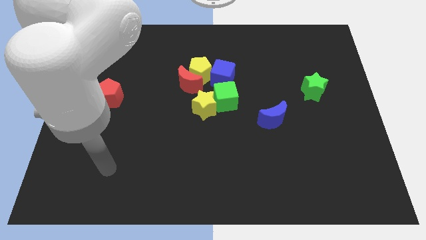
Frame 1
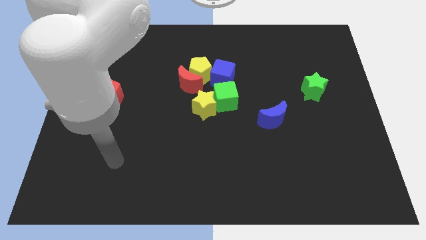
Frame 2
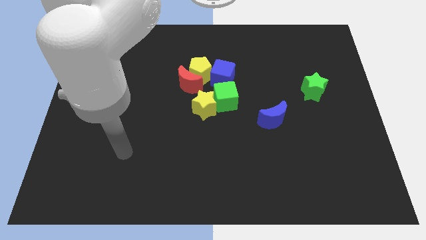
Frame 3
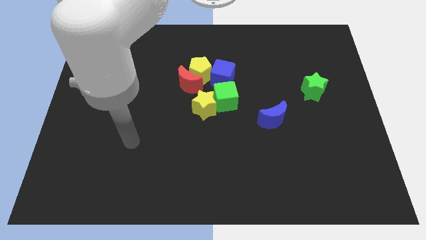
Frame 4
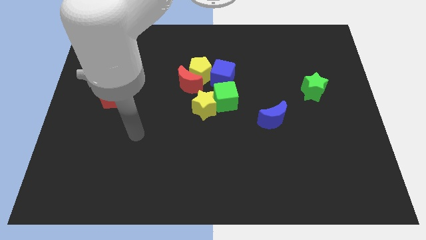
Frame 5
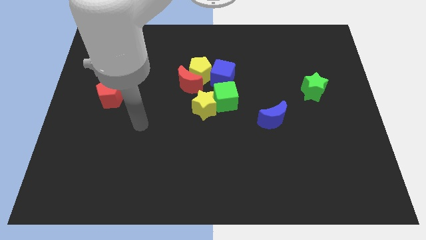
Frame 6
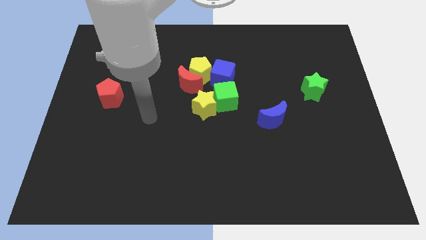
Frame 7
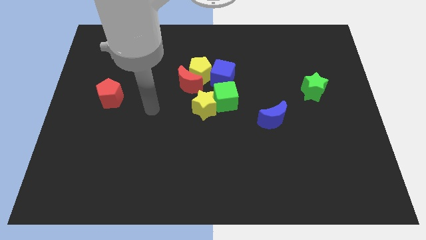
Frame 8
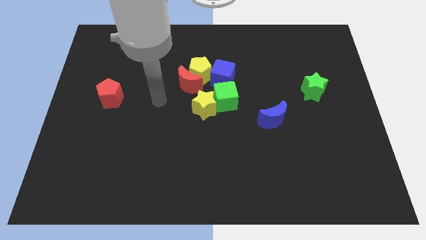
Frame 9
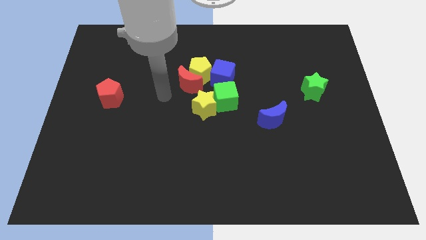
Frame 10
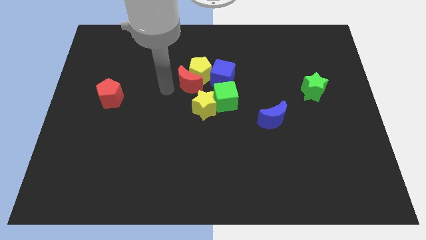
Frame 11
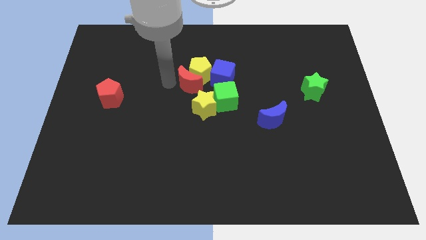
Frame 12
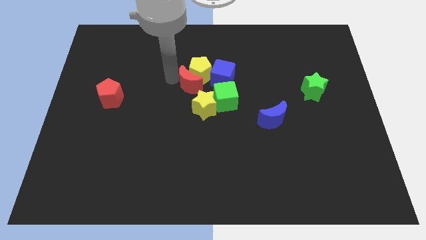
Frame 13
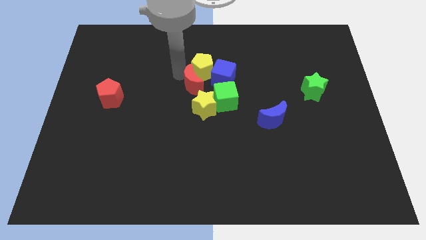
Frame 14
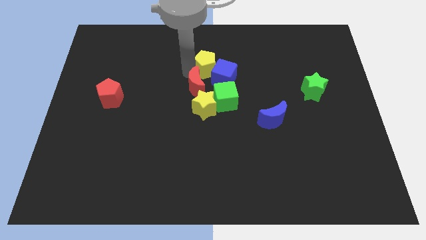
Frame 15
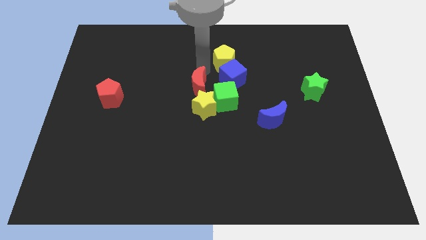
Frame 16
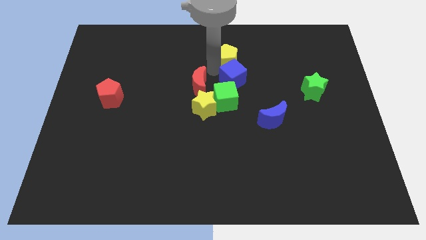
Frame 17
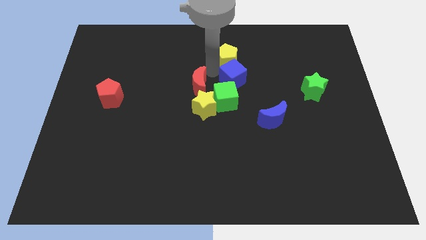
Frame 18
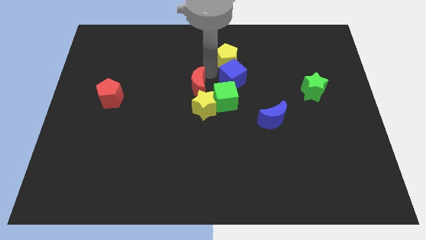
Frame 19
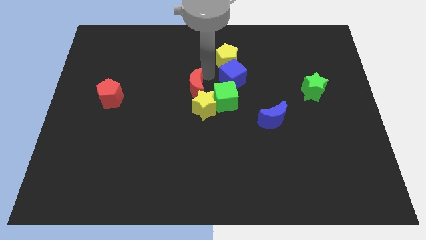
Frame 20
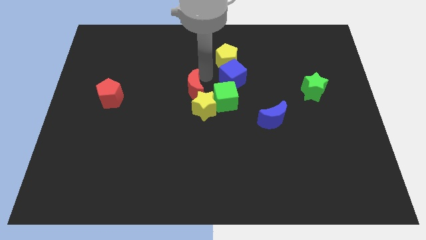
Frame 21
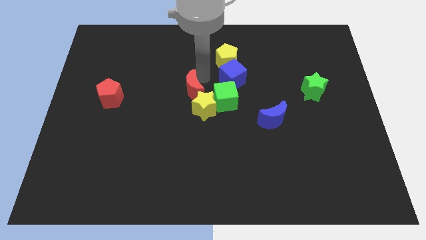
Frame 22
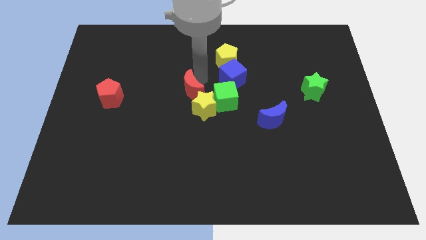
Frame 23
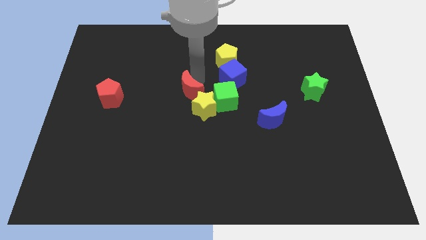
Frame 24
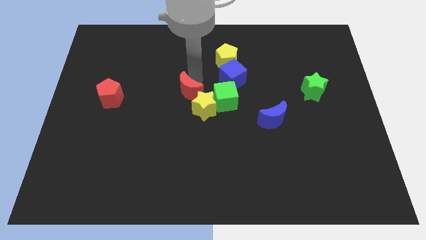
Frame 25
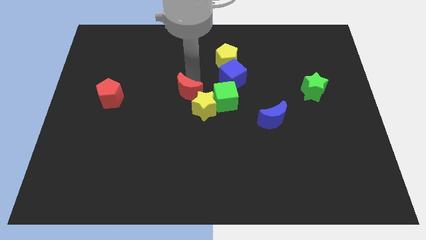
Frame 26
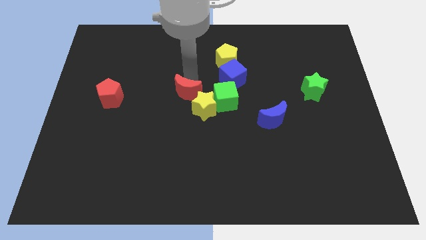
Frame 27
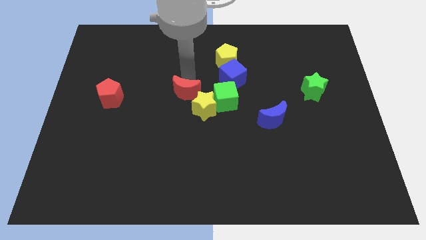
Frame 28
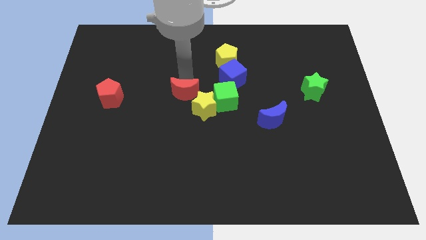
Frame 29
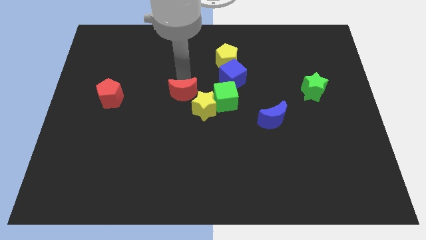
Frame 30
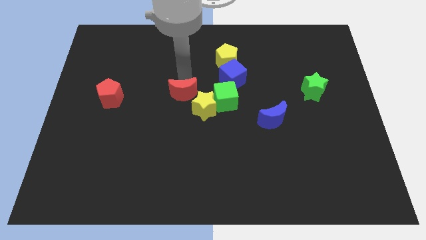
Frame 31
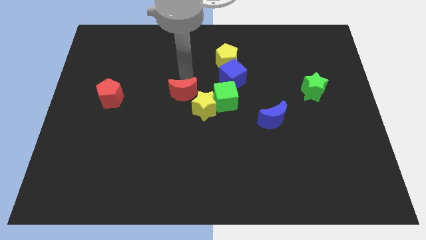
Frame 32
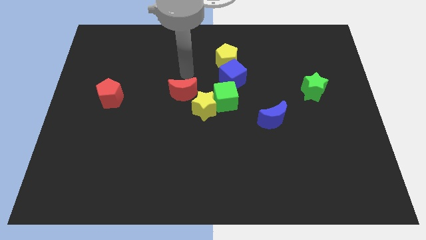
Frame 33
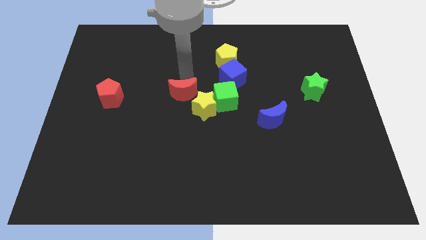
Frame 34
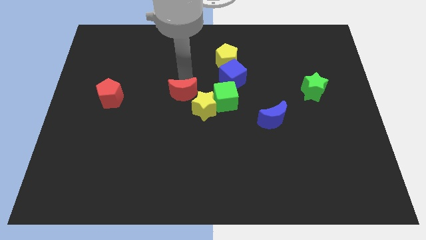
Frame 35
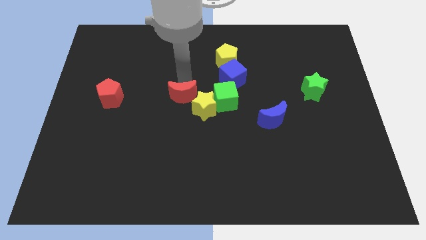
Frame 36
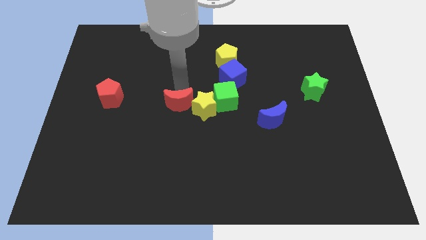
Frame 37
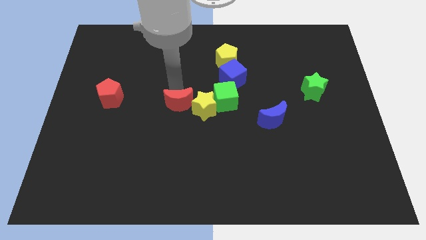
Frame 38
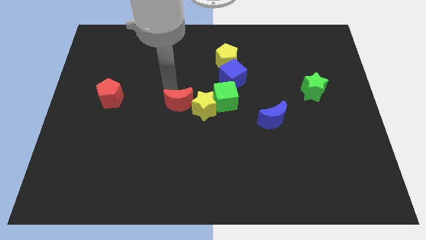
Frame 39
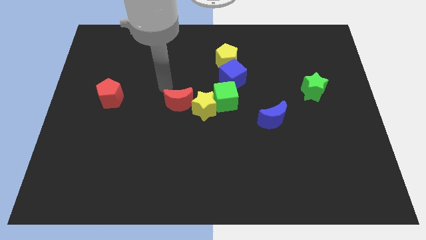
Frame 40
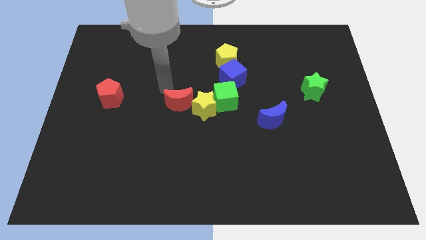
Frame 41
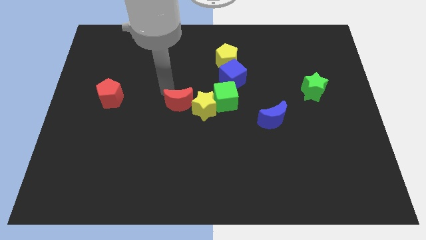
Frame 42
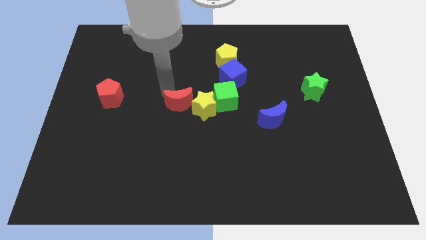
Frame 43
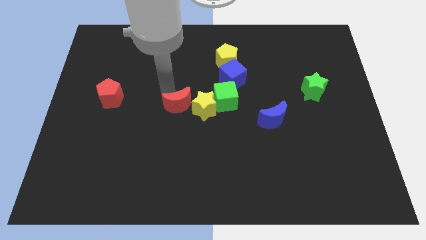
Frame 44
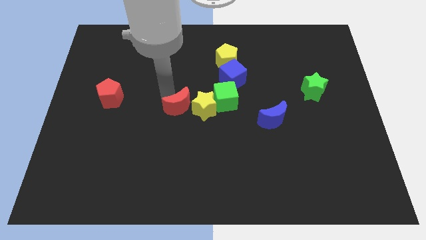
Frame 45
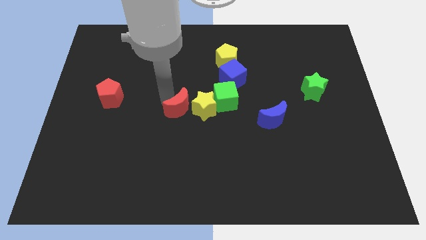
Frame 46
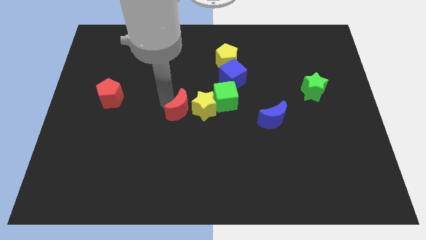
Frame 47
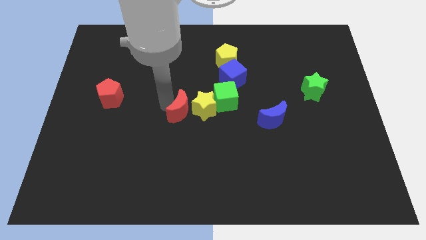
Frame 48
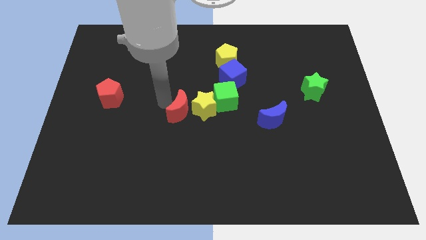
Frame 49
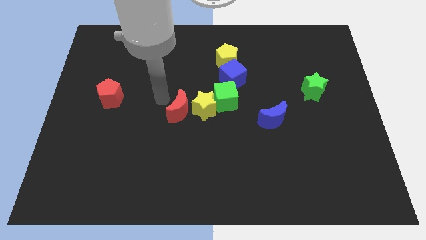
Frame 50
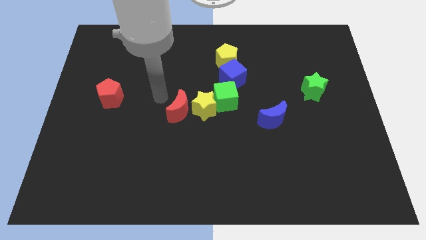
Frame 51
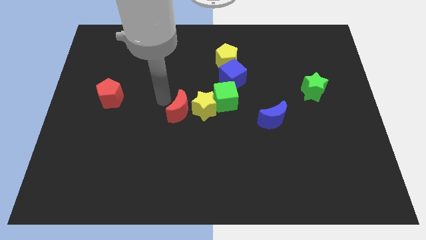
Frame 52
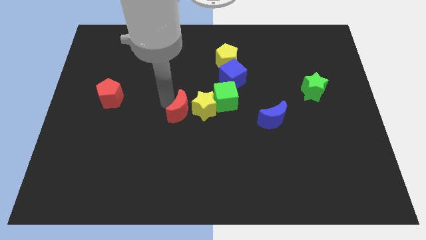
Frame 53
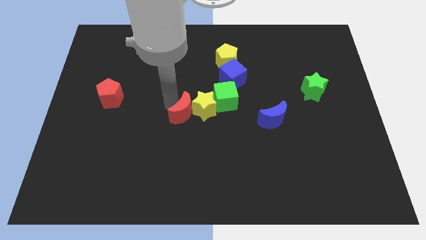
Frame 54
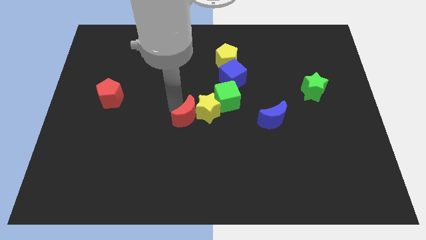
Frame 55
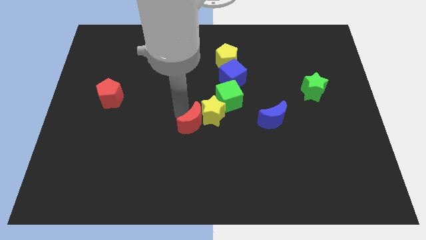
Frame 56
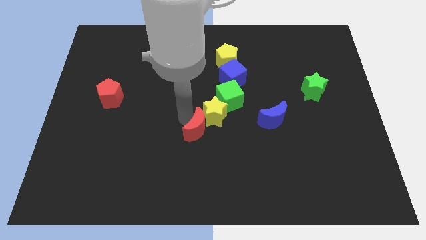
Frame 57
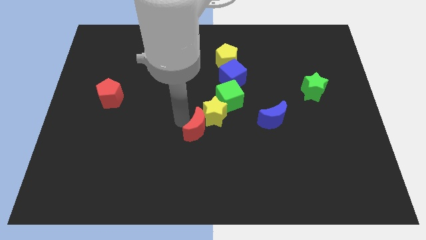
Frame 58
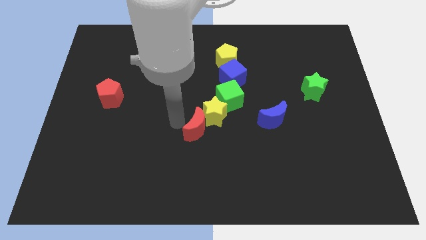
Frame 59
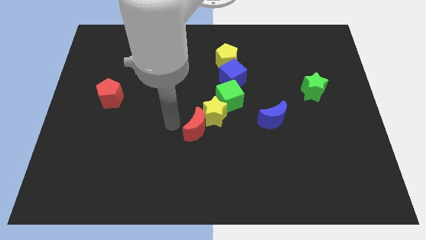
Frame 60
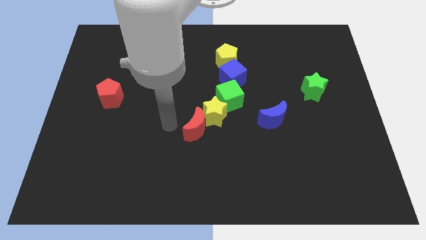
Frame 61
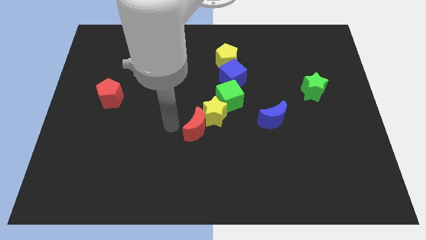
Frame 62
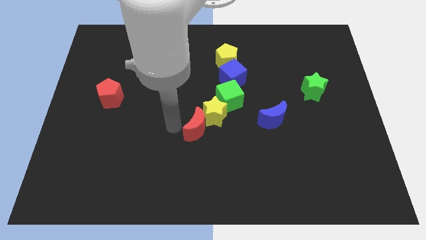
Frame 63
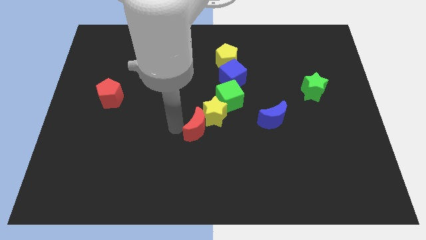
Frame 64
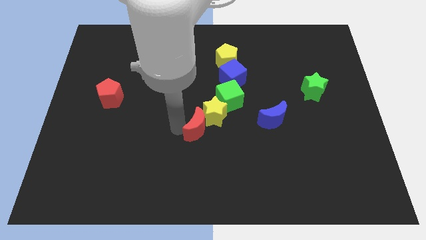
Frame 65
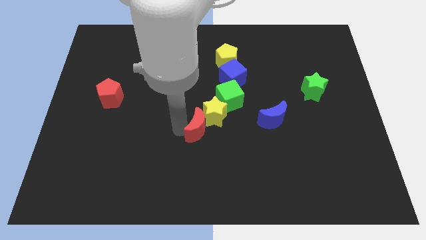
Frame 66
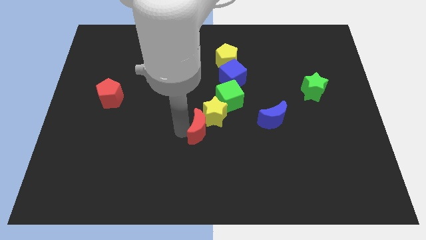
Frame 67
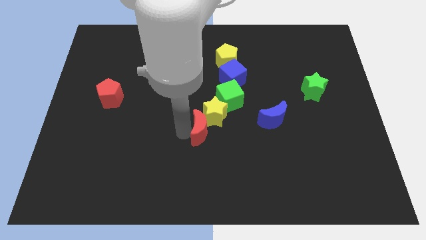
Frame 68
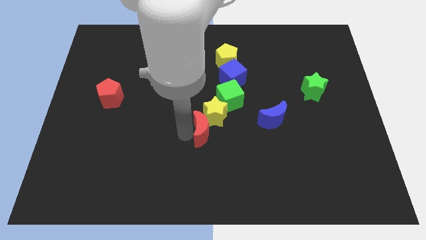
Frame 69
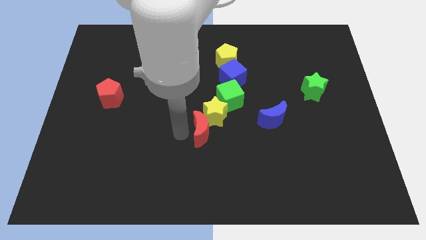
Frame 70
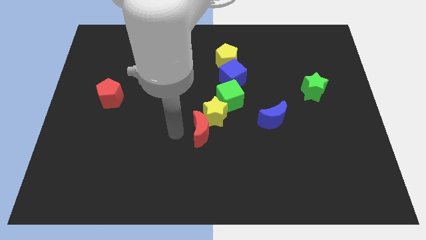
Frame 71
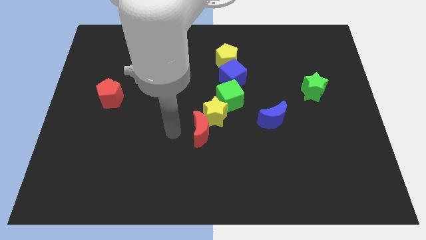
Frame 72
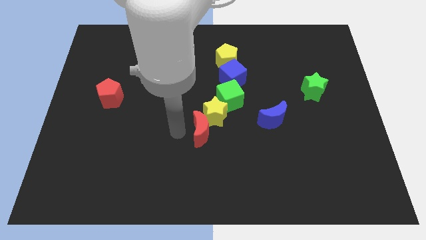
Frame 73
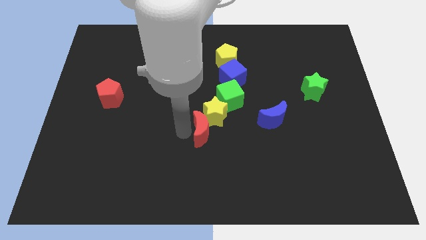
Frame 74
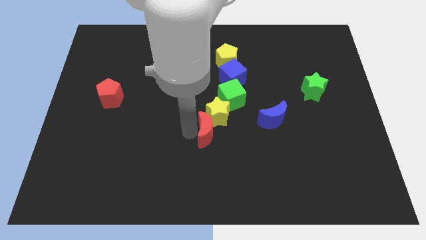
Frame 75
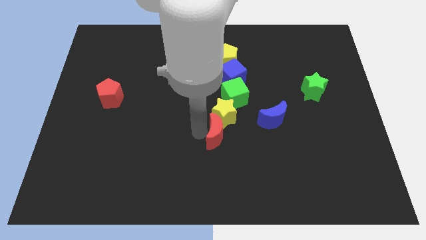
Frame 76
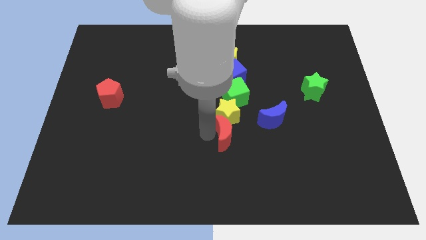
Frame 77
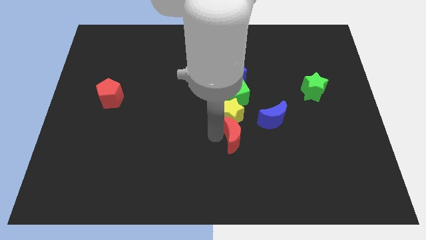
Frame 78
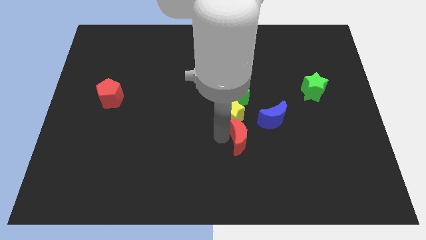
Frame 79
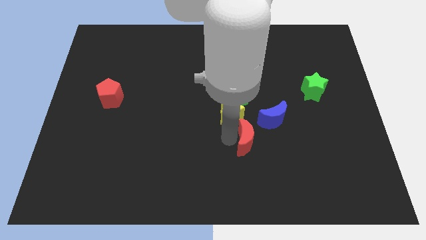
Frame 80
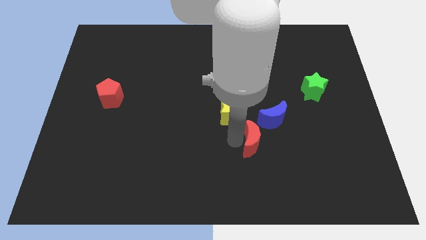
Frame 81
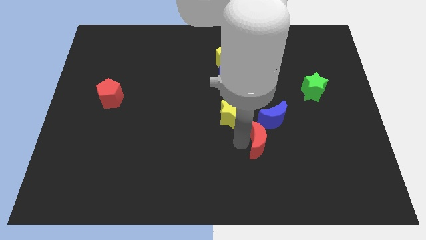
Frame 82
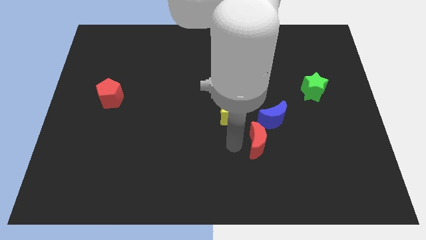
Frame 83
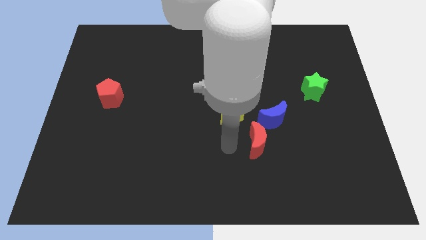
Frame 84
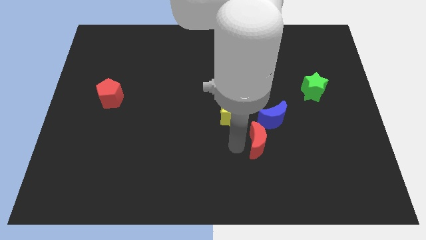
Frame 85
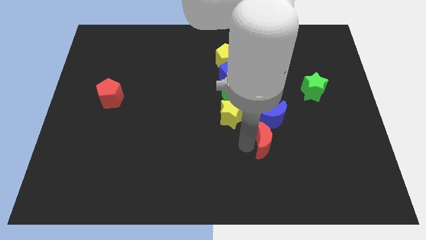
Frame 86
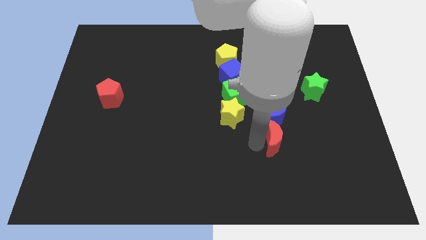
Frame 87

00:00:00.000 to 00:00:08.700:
push the red moon to the bottom right of the blue moon
